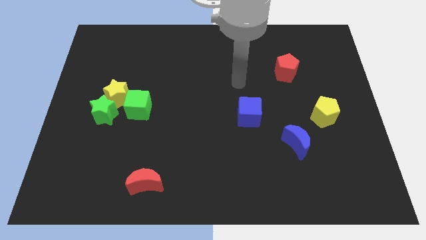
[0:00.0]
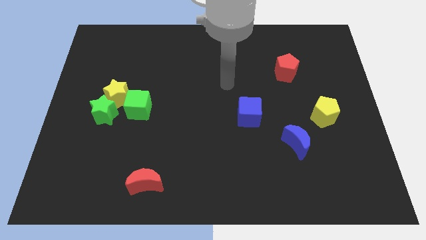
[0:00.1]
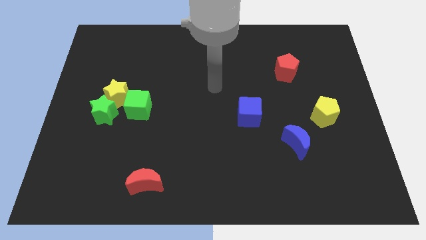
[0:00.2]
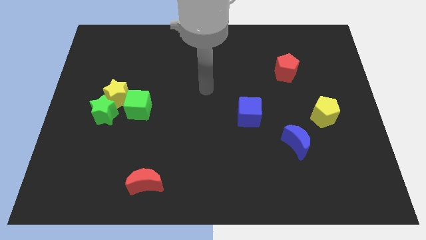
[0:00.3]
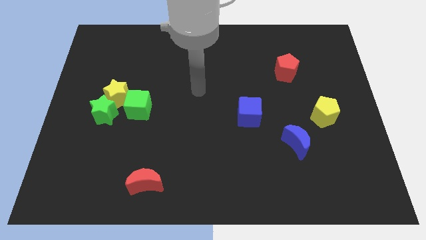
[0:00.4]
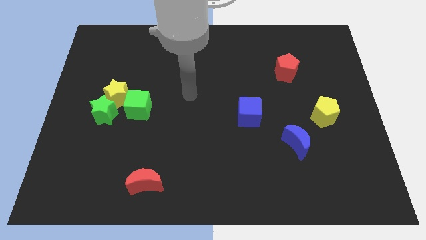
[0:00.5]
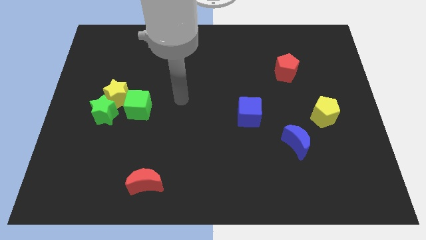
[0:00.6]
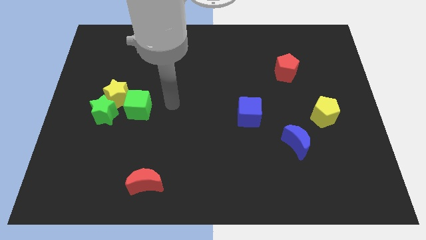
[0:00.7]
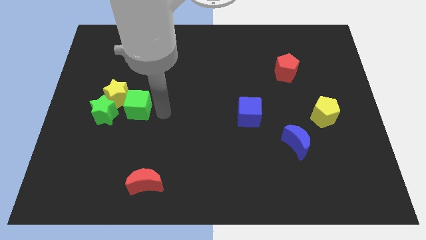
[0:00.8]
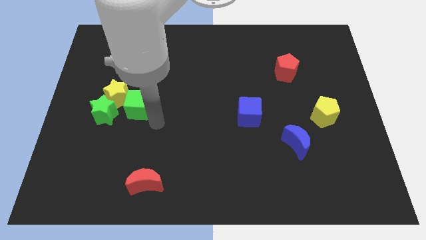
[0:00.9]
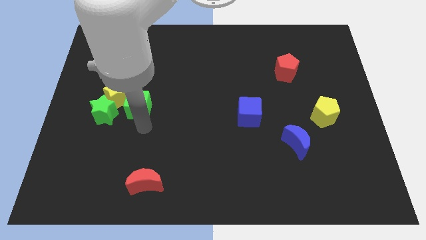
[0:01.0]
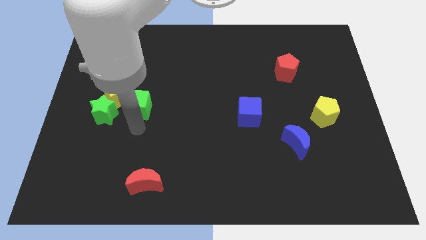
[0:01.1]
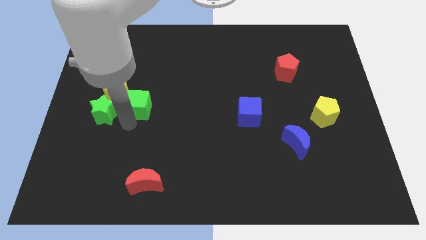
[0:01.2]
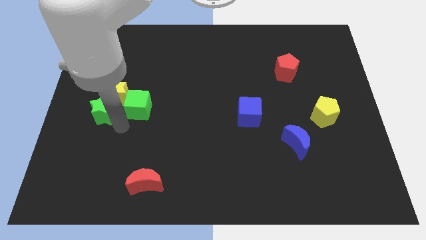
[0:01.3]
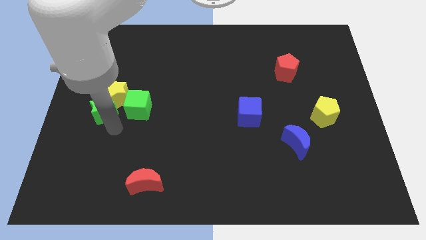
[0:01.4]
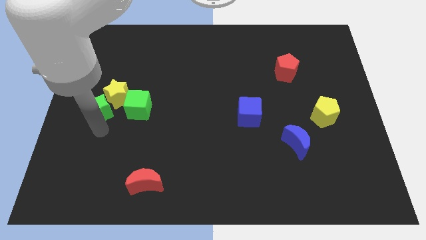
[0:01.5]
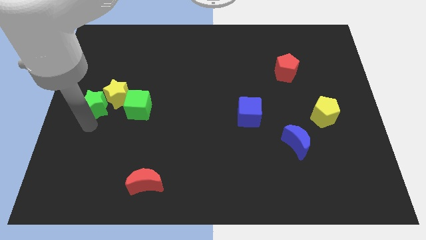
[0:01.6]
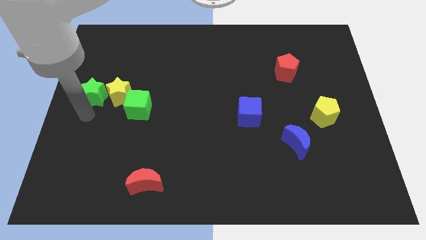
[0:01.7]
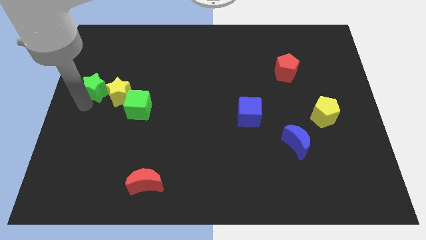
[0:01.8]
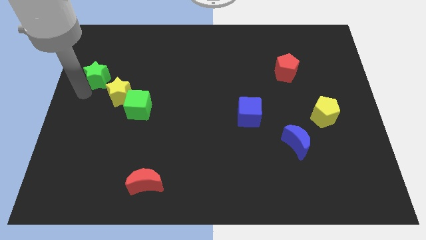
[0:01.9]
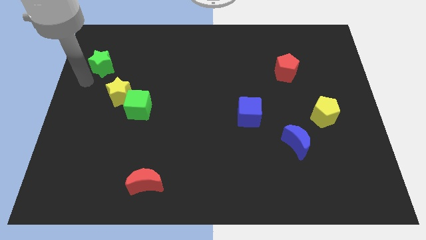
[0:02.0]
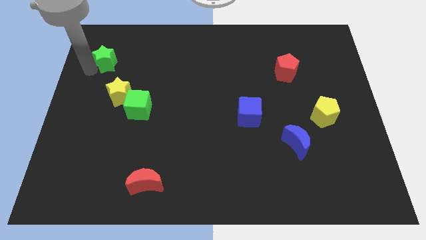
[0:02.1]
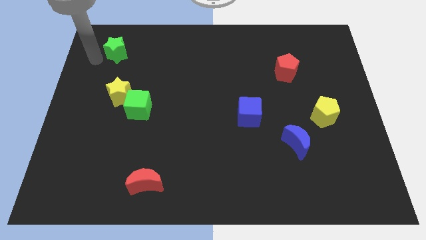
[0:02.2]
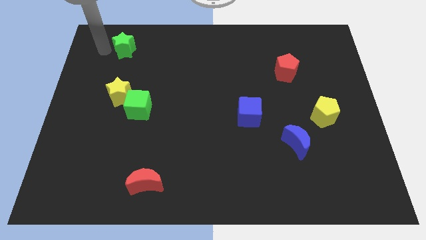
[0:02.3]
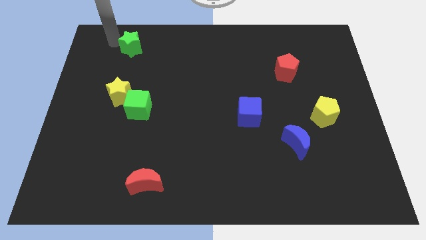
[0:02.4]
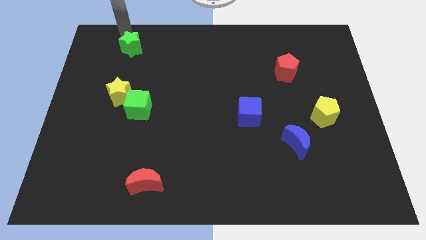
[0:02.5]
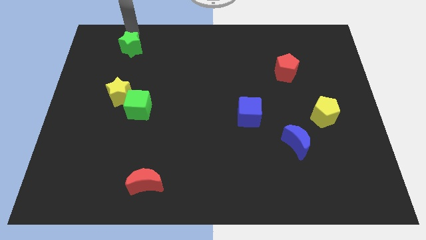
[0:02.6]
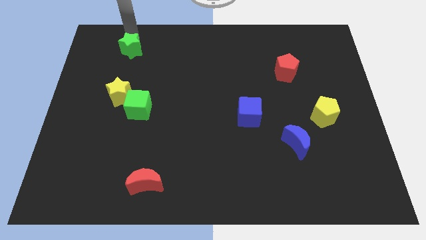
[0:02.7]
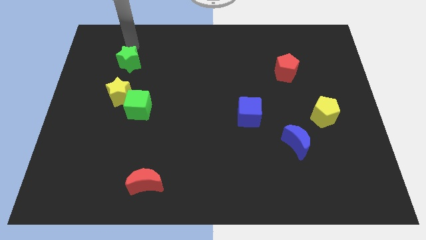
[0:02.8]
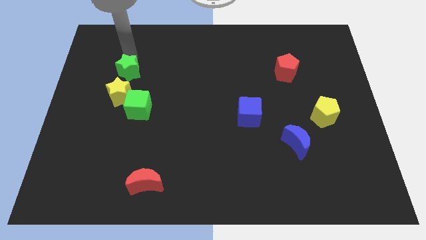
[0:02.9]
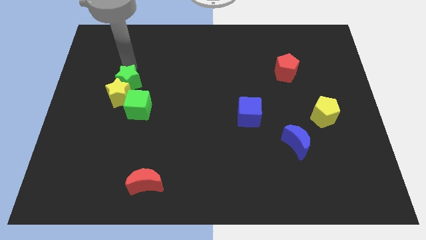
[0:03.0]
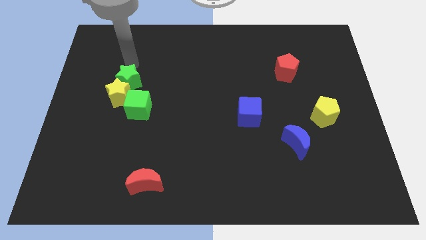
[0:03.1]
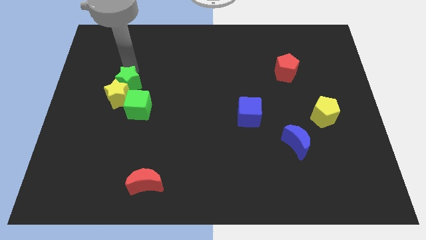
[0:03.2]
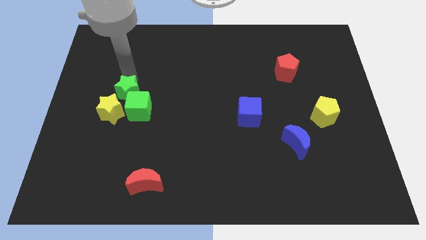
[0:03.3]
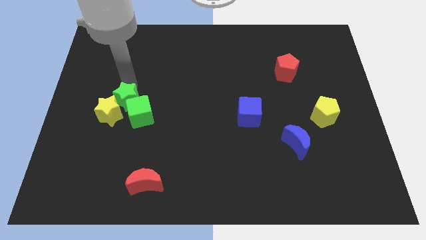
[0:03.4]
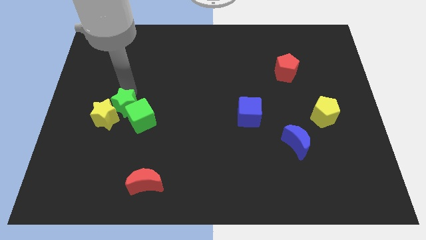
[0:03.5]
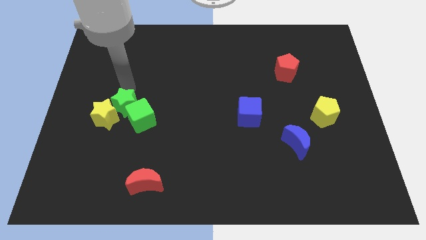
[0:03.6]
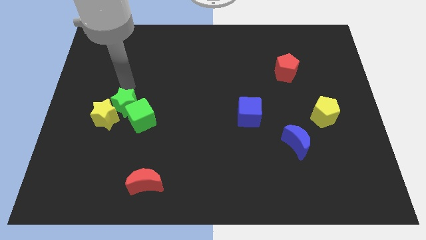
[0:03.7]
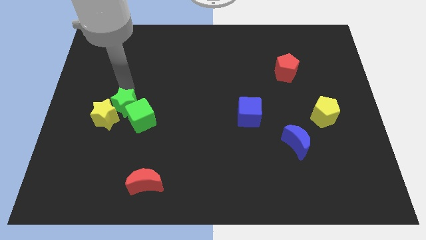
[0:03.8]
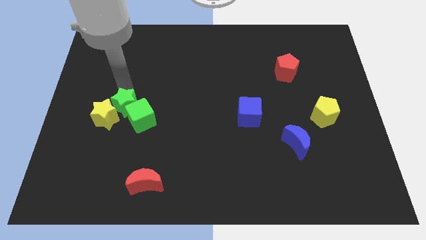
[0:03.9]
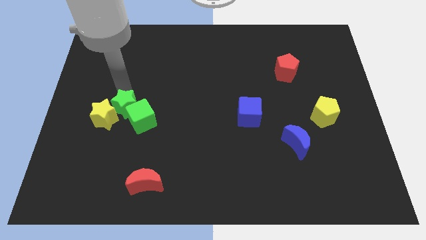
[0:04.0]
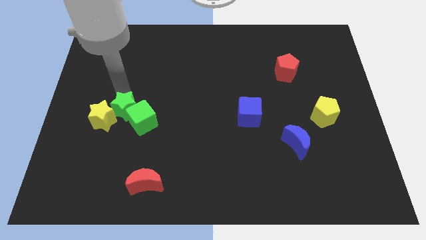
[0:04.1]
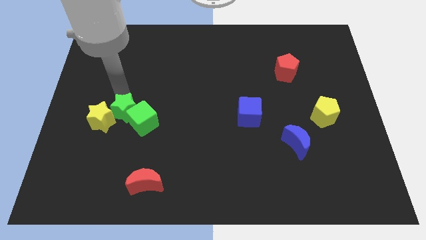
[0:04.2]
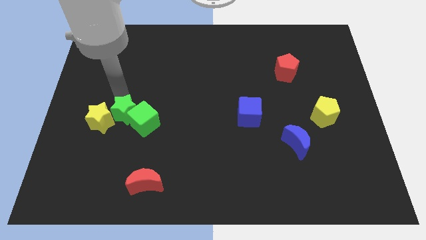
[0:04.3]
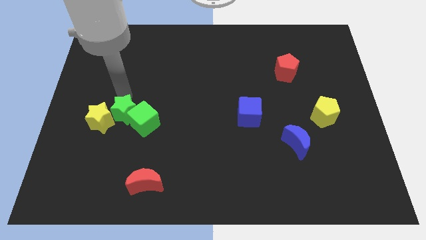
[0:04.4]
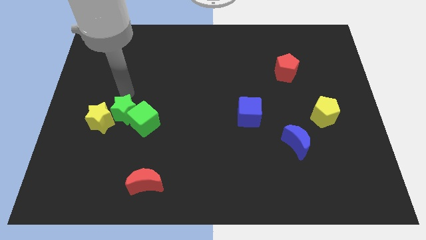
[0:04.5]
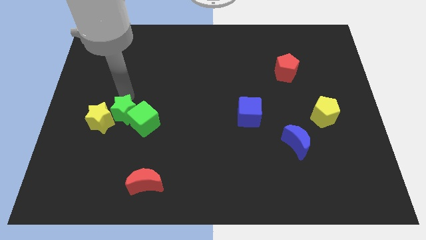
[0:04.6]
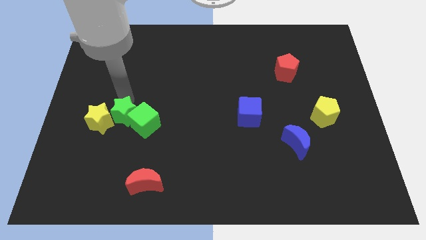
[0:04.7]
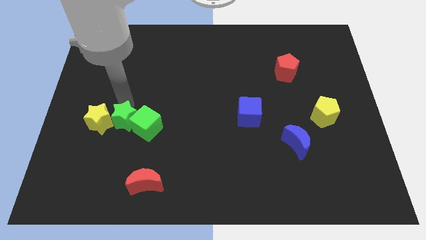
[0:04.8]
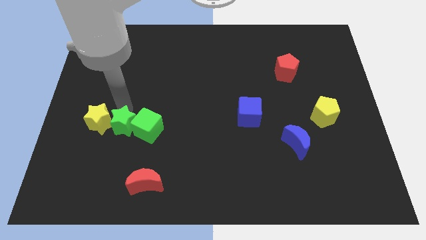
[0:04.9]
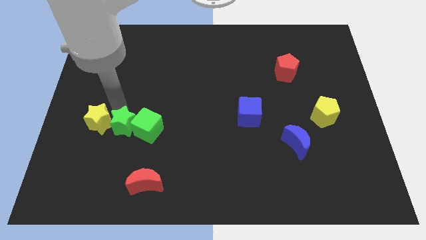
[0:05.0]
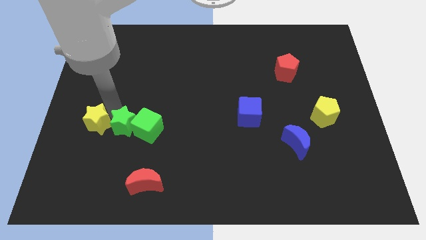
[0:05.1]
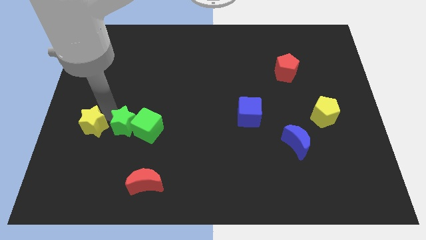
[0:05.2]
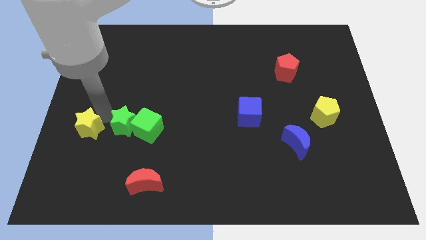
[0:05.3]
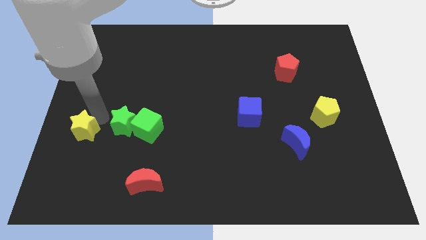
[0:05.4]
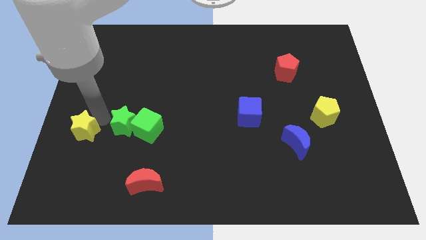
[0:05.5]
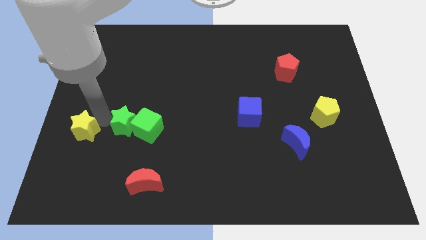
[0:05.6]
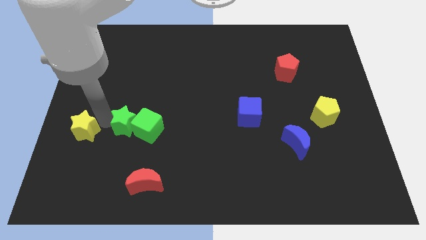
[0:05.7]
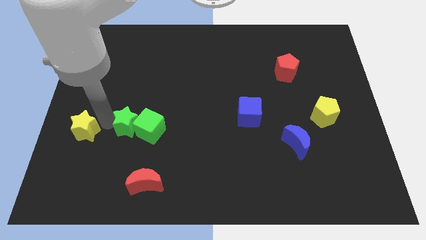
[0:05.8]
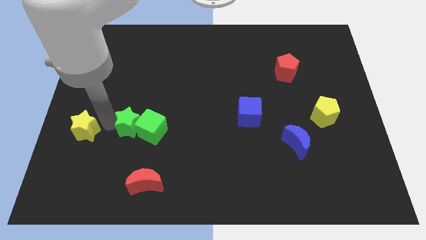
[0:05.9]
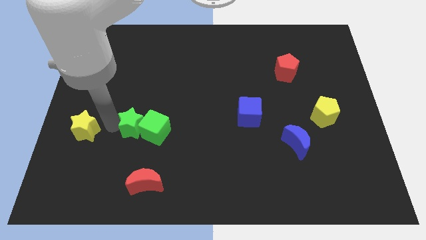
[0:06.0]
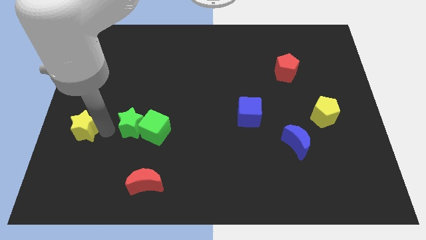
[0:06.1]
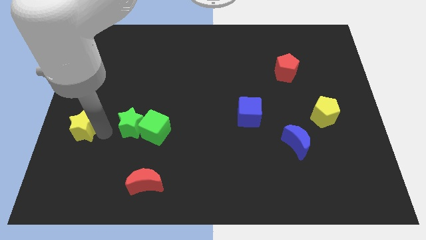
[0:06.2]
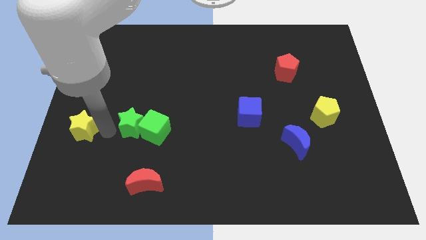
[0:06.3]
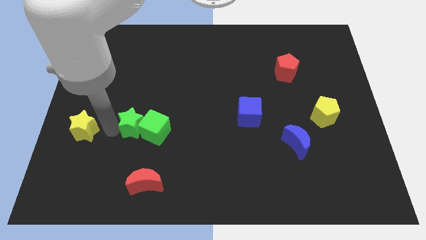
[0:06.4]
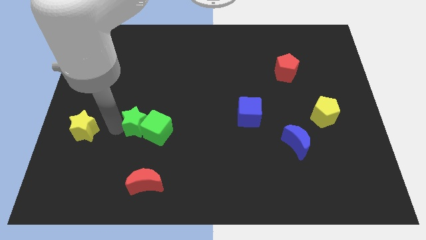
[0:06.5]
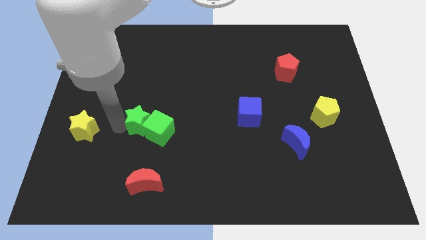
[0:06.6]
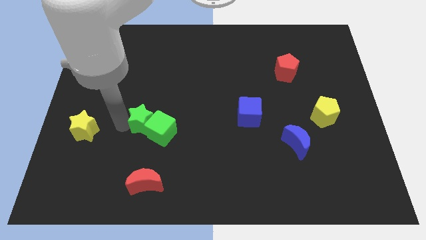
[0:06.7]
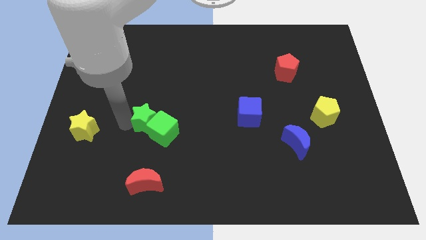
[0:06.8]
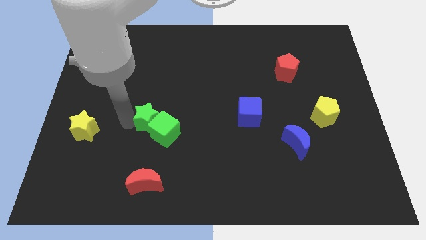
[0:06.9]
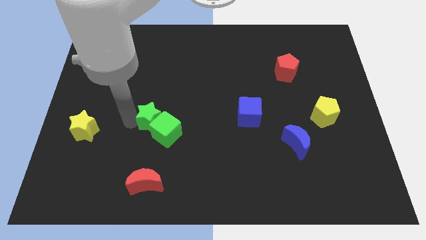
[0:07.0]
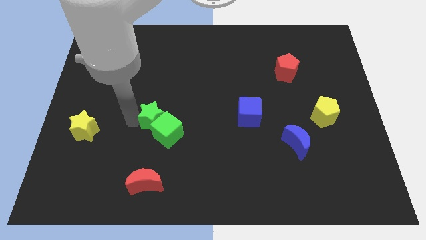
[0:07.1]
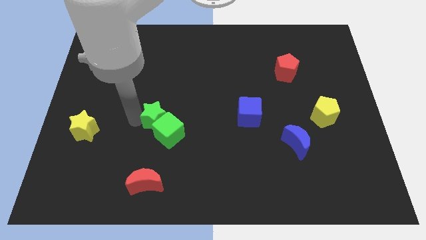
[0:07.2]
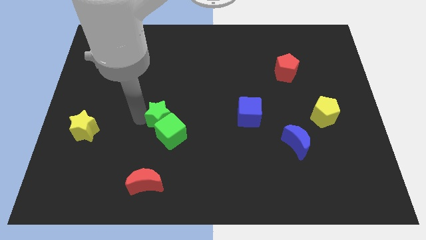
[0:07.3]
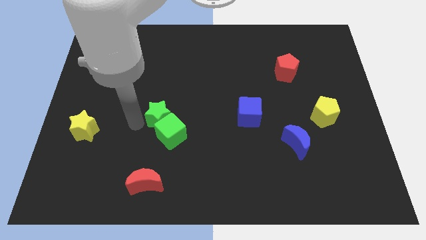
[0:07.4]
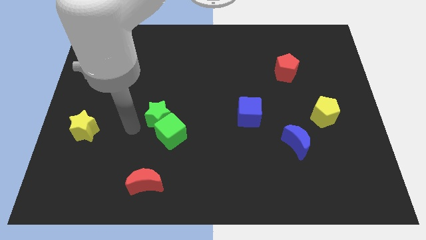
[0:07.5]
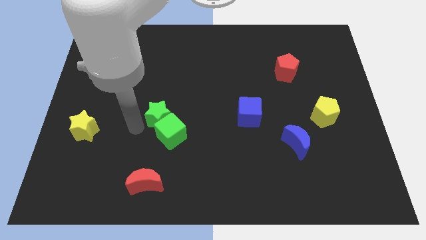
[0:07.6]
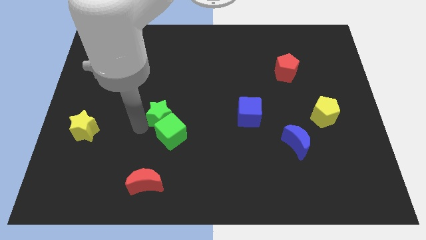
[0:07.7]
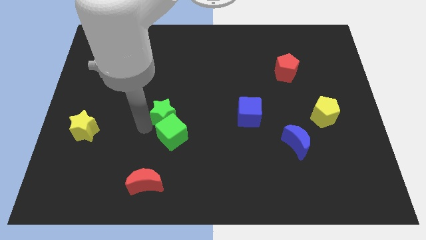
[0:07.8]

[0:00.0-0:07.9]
push the green star to the middle
